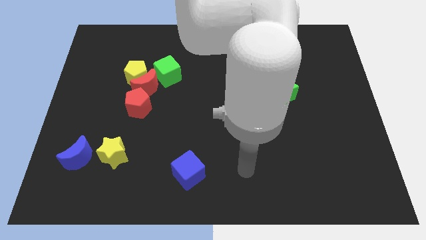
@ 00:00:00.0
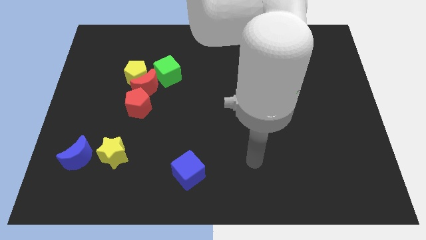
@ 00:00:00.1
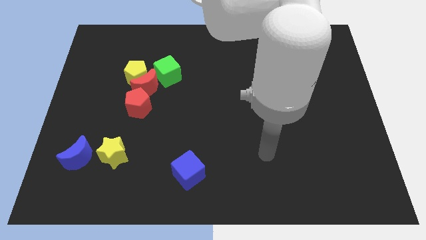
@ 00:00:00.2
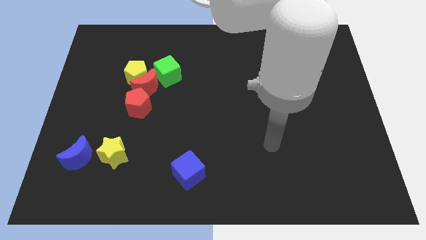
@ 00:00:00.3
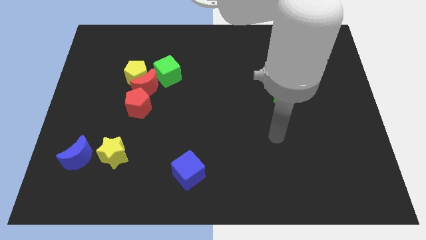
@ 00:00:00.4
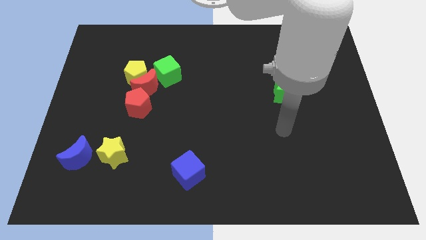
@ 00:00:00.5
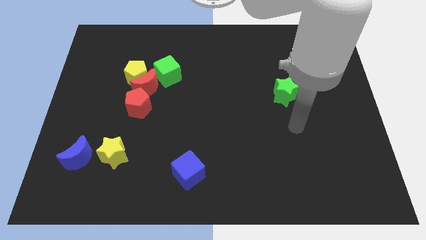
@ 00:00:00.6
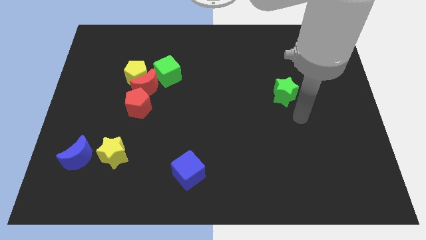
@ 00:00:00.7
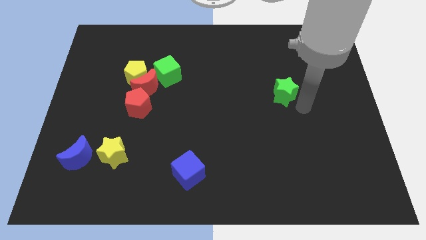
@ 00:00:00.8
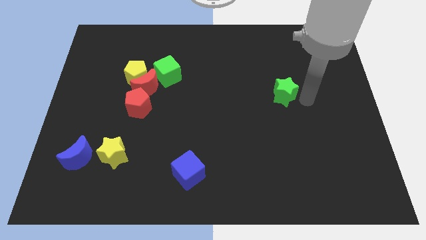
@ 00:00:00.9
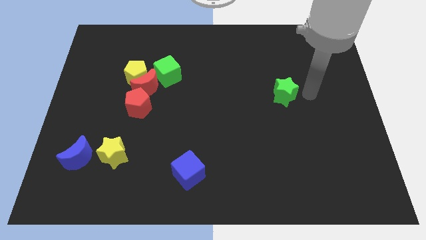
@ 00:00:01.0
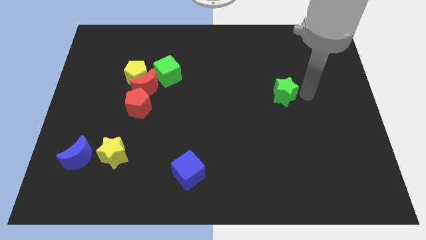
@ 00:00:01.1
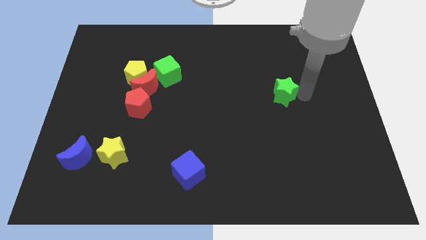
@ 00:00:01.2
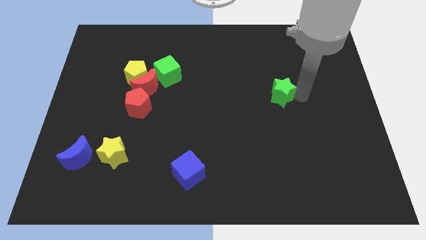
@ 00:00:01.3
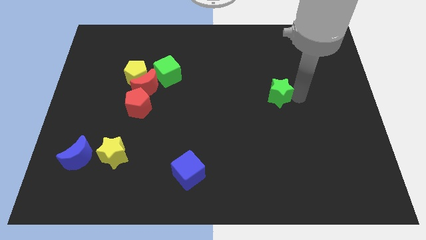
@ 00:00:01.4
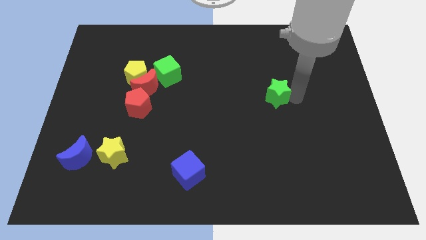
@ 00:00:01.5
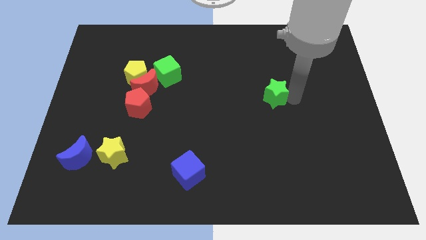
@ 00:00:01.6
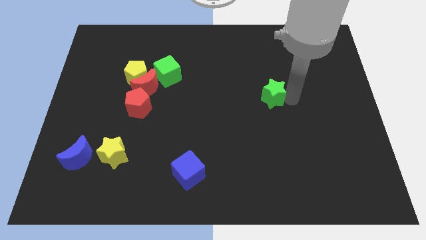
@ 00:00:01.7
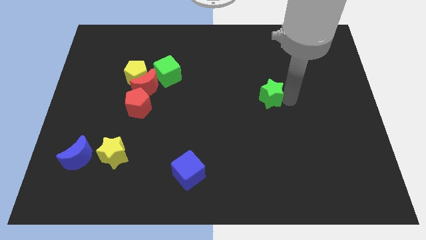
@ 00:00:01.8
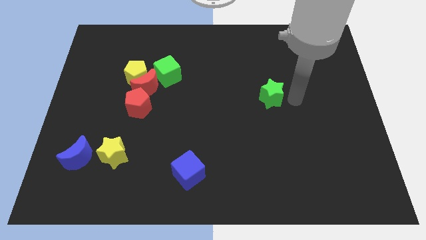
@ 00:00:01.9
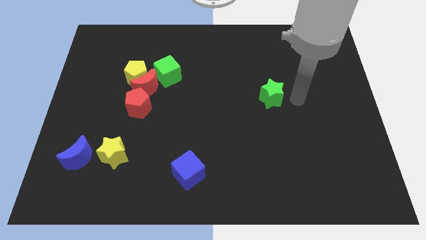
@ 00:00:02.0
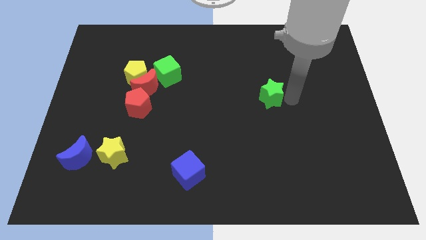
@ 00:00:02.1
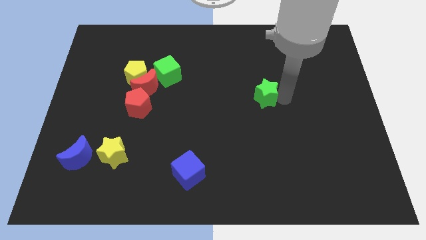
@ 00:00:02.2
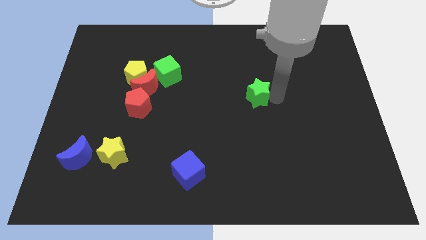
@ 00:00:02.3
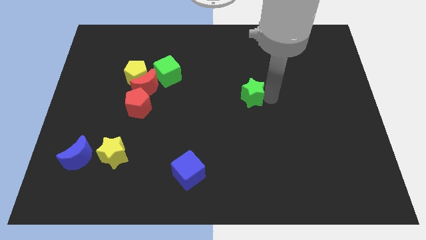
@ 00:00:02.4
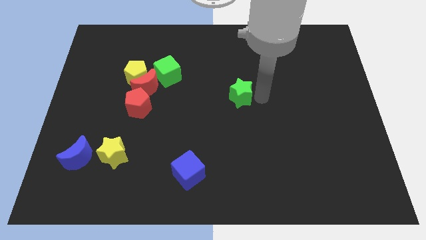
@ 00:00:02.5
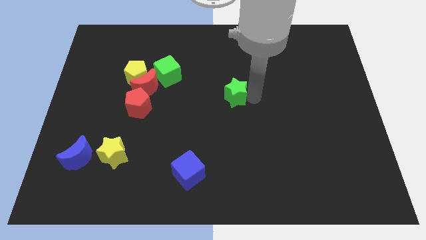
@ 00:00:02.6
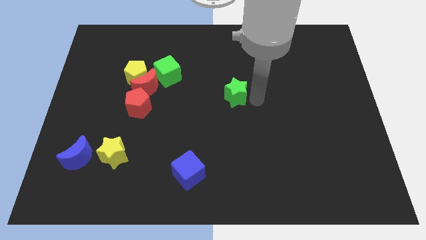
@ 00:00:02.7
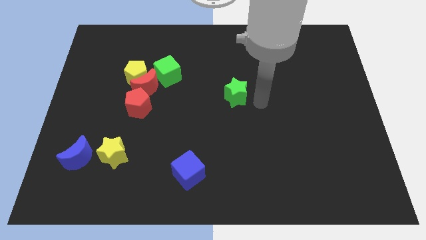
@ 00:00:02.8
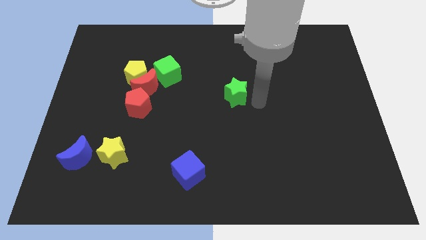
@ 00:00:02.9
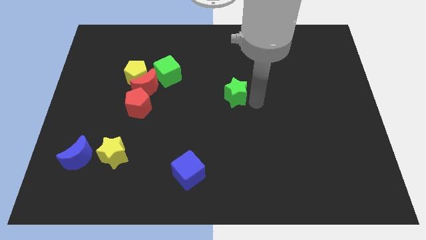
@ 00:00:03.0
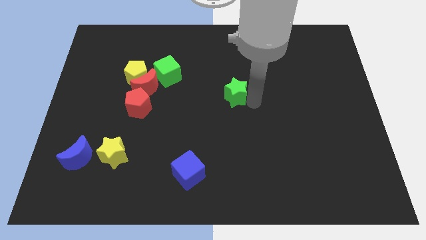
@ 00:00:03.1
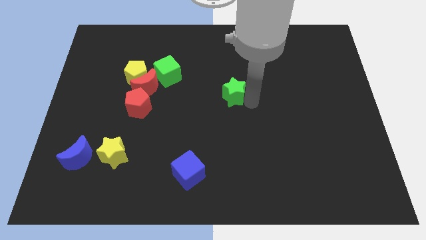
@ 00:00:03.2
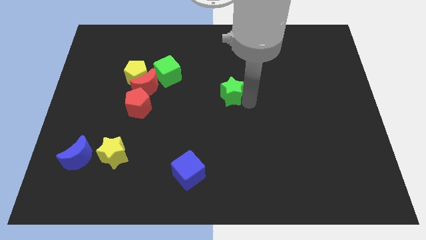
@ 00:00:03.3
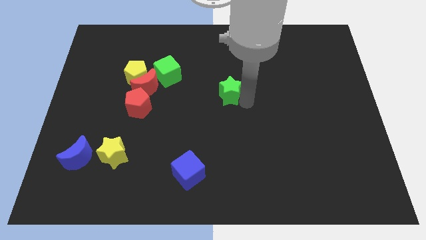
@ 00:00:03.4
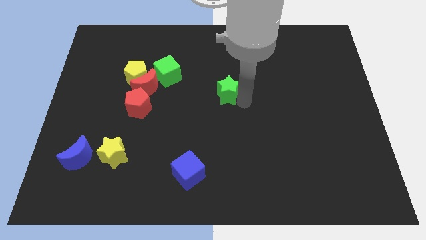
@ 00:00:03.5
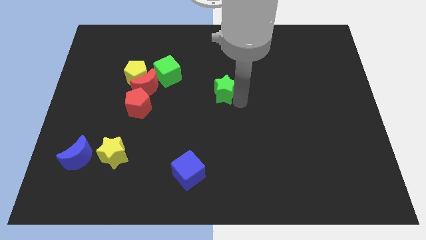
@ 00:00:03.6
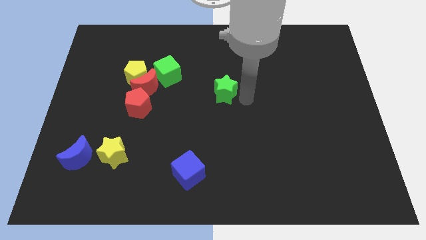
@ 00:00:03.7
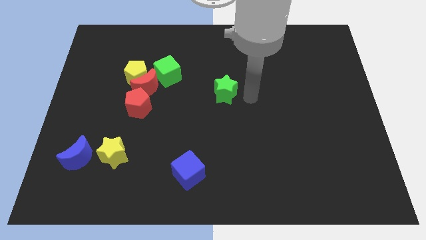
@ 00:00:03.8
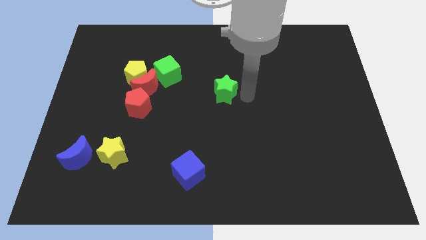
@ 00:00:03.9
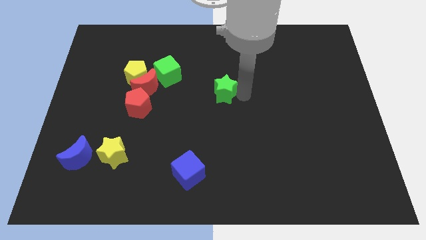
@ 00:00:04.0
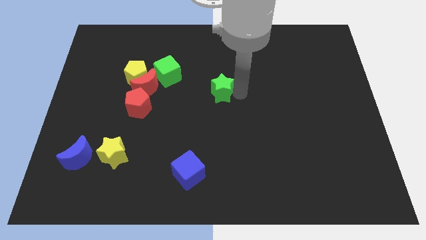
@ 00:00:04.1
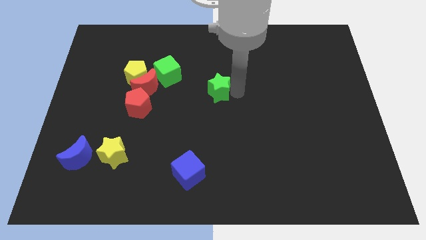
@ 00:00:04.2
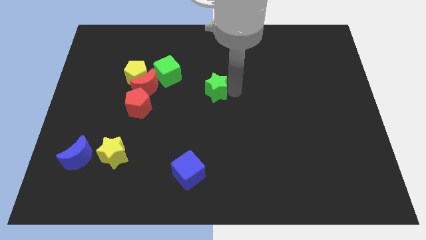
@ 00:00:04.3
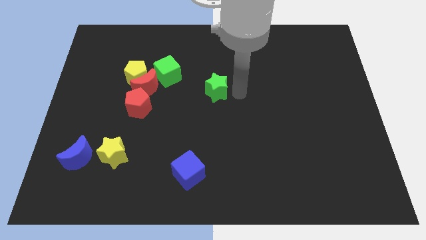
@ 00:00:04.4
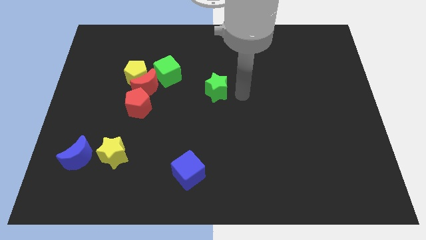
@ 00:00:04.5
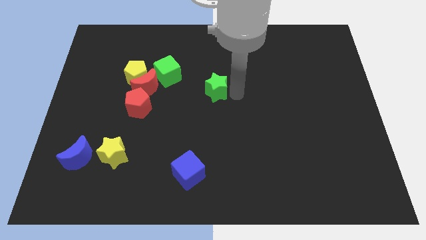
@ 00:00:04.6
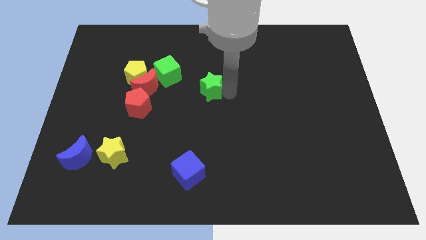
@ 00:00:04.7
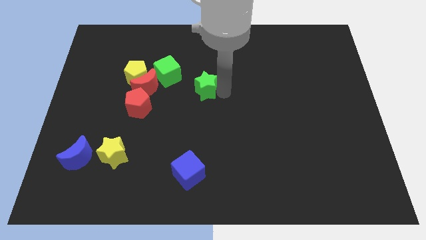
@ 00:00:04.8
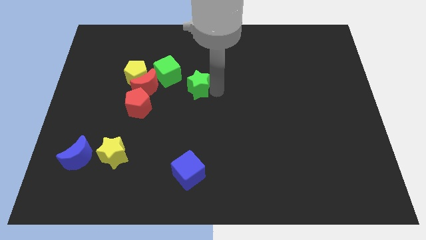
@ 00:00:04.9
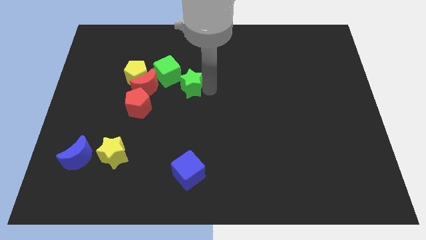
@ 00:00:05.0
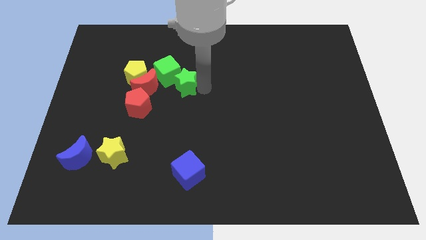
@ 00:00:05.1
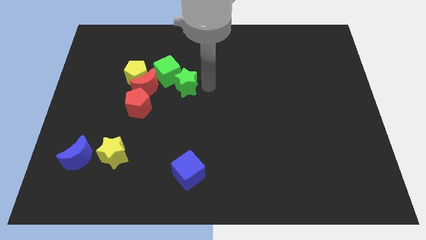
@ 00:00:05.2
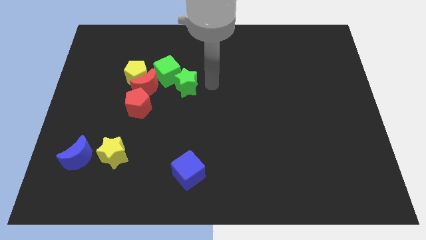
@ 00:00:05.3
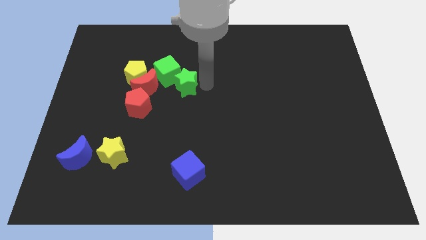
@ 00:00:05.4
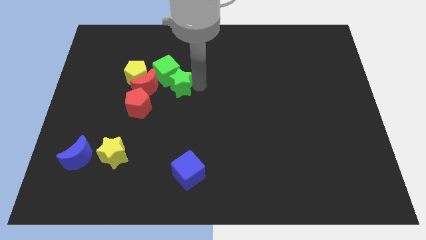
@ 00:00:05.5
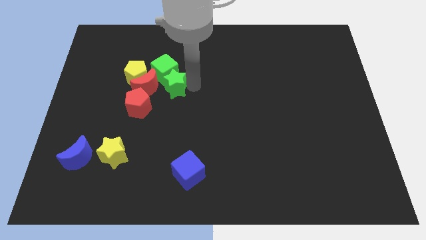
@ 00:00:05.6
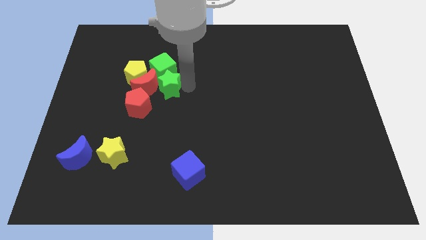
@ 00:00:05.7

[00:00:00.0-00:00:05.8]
slide the green star to the red moon

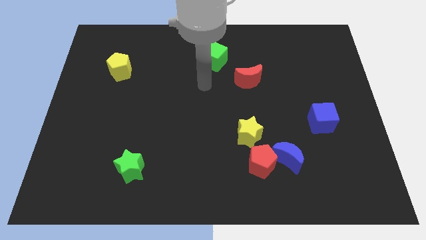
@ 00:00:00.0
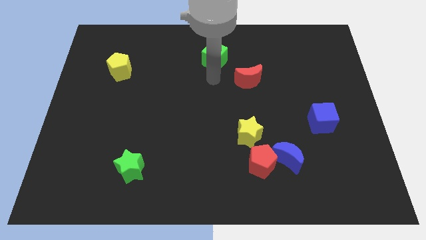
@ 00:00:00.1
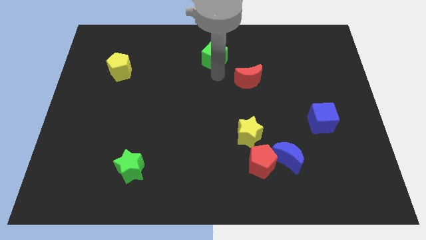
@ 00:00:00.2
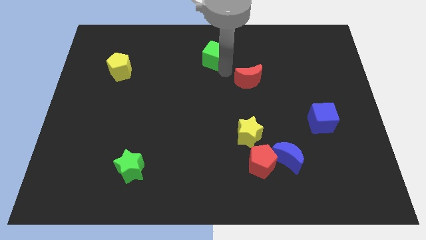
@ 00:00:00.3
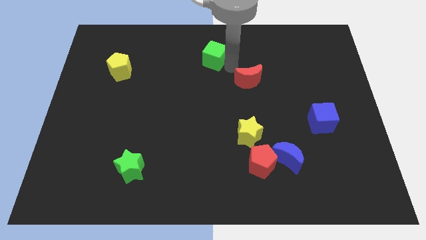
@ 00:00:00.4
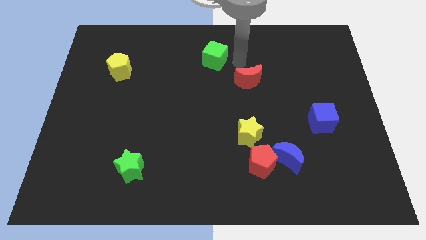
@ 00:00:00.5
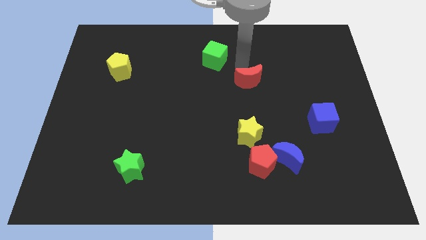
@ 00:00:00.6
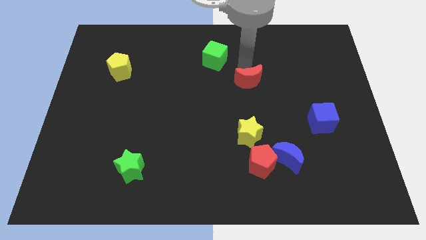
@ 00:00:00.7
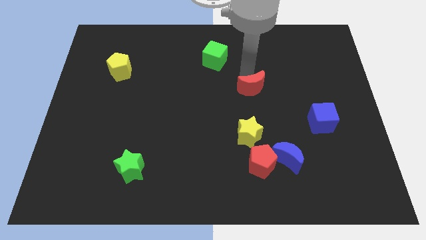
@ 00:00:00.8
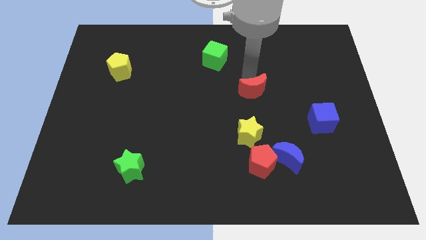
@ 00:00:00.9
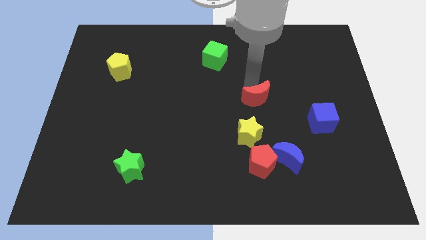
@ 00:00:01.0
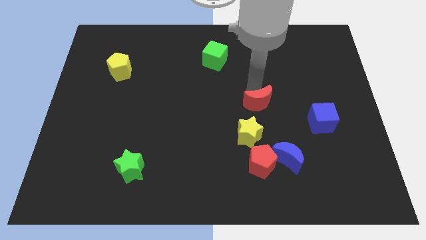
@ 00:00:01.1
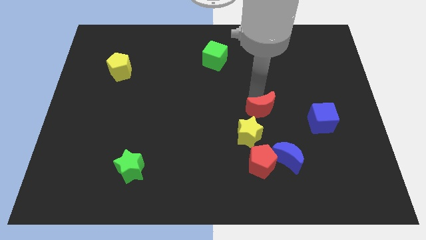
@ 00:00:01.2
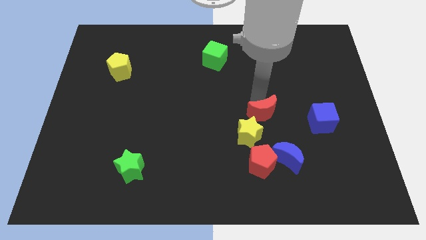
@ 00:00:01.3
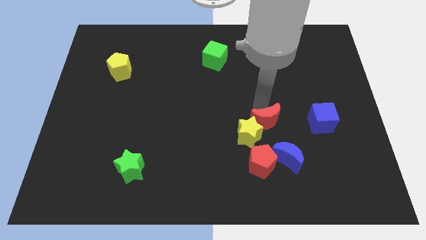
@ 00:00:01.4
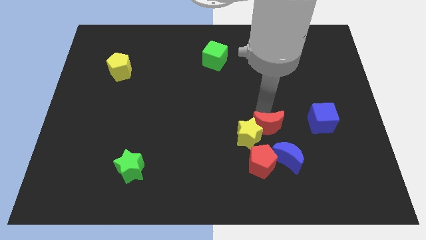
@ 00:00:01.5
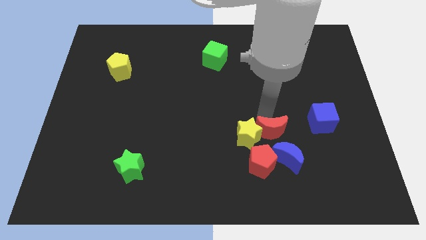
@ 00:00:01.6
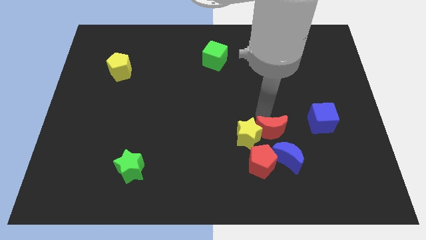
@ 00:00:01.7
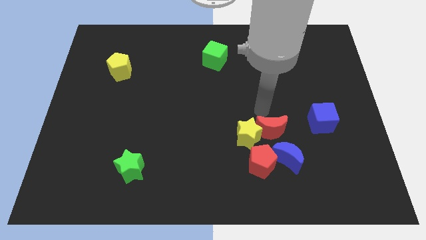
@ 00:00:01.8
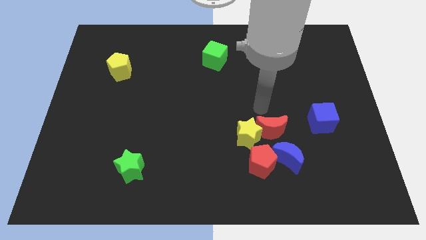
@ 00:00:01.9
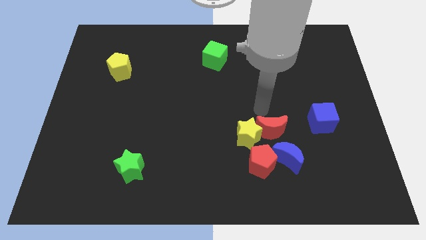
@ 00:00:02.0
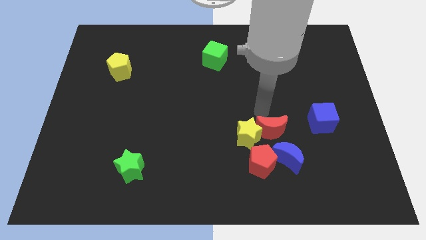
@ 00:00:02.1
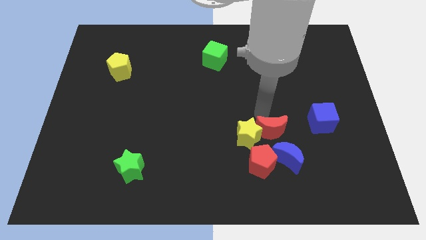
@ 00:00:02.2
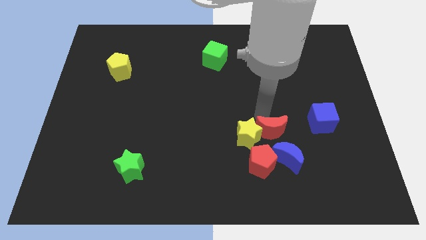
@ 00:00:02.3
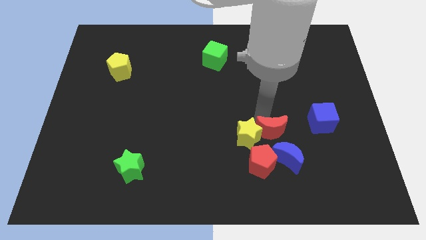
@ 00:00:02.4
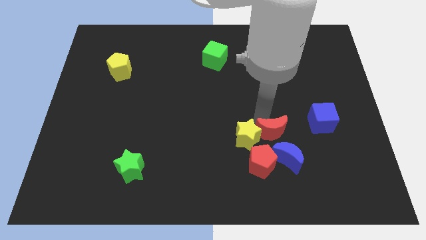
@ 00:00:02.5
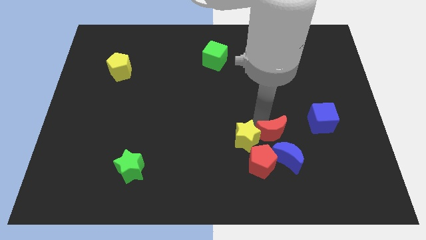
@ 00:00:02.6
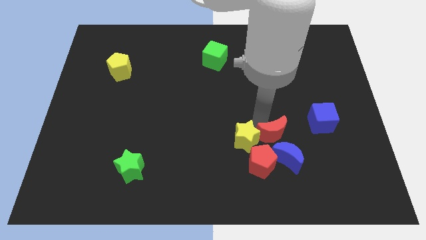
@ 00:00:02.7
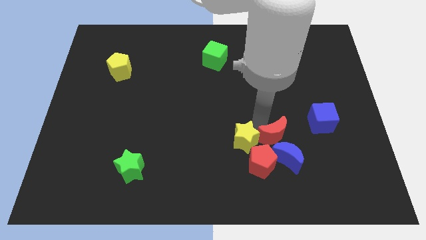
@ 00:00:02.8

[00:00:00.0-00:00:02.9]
push the red moon close to the blue moon
